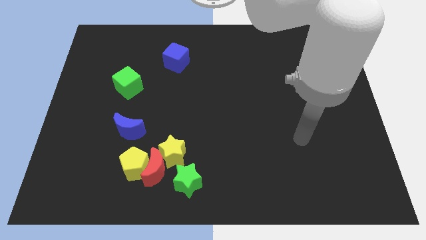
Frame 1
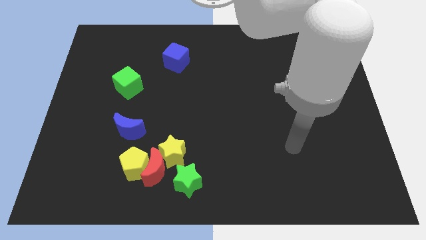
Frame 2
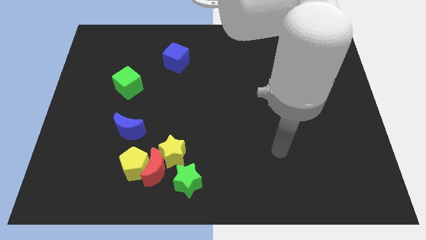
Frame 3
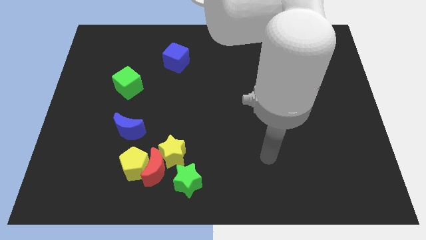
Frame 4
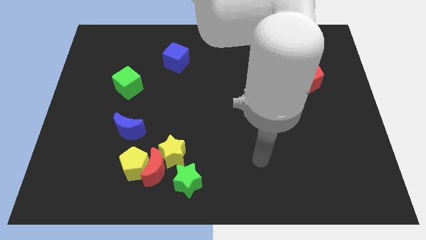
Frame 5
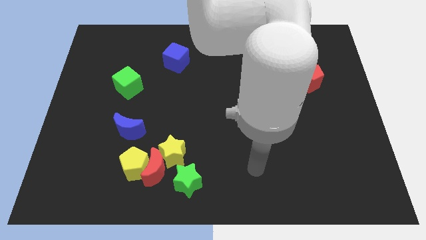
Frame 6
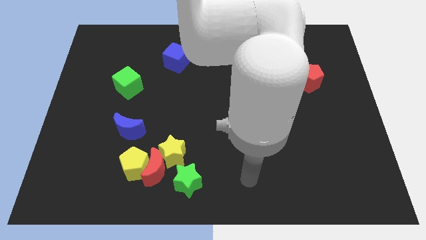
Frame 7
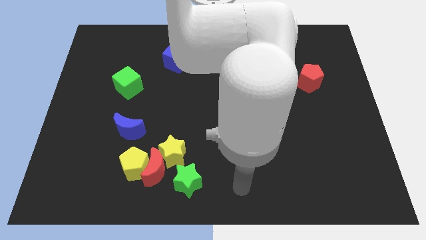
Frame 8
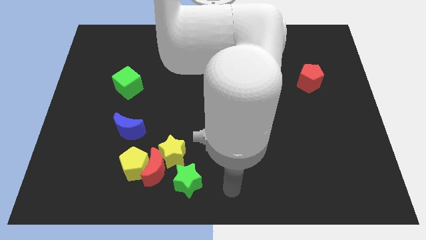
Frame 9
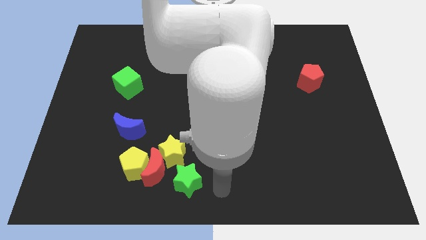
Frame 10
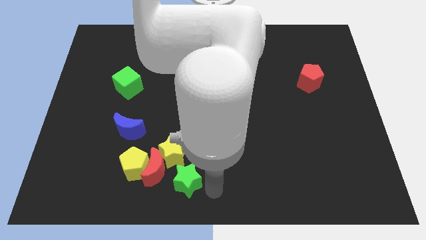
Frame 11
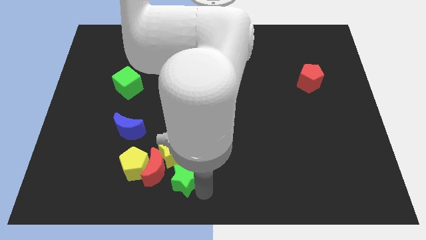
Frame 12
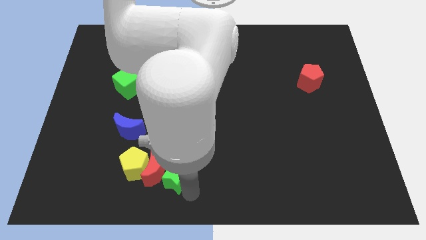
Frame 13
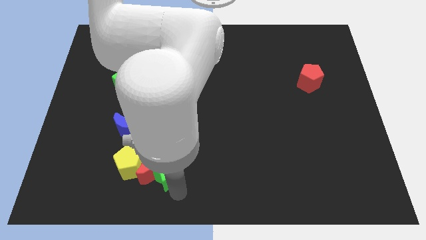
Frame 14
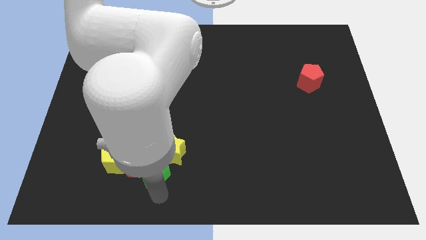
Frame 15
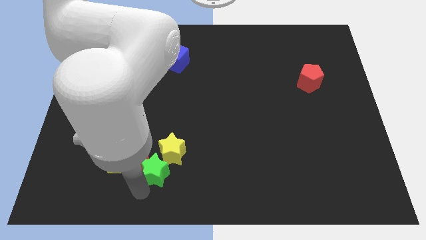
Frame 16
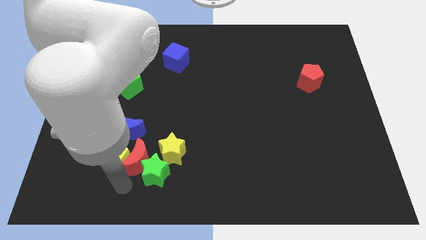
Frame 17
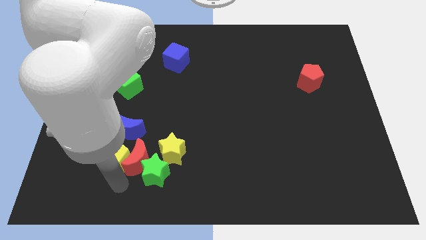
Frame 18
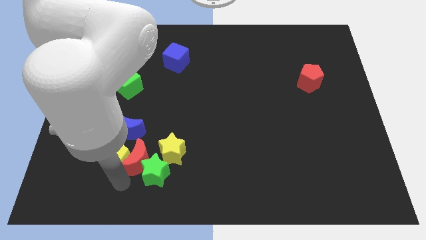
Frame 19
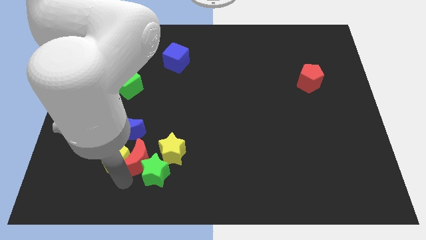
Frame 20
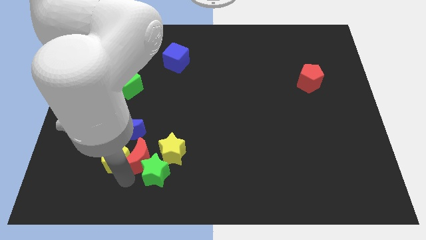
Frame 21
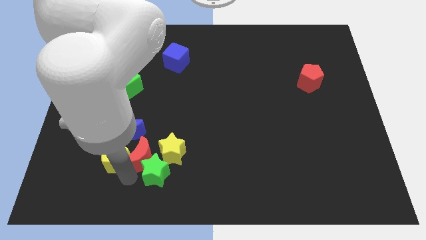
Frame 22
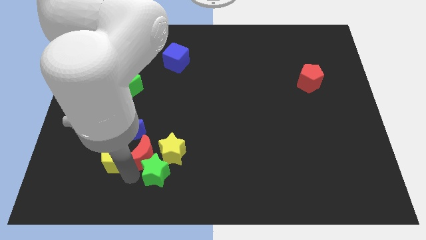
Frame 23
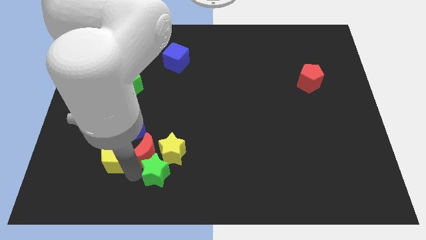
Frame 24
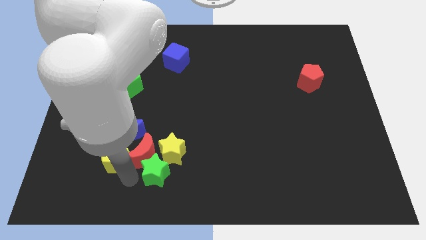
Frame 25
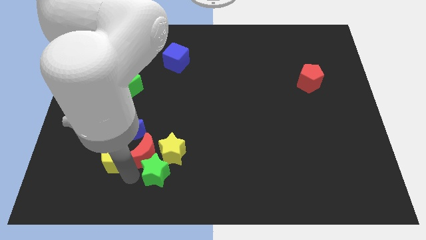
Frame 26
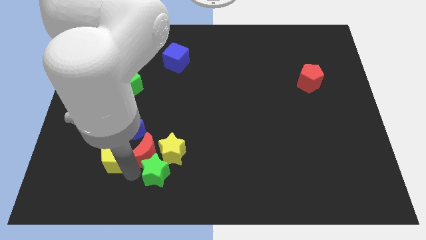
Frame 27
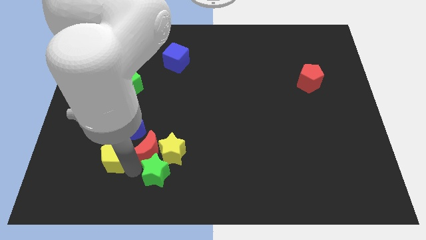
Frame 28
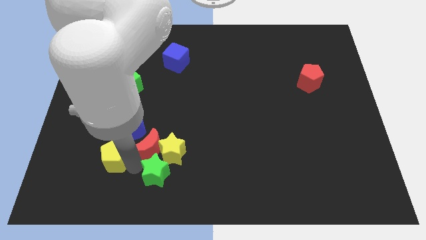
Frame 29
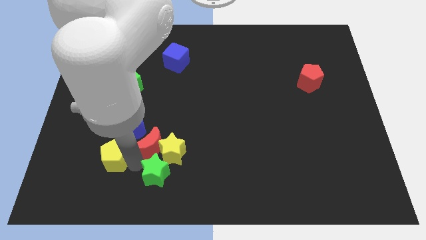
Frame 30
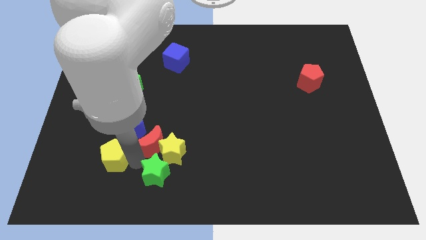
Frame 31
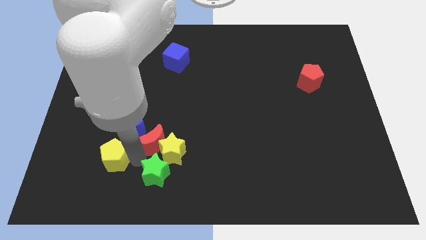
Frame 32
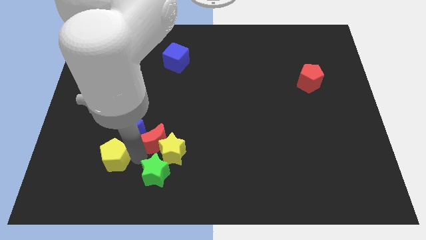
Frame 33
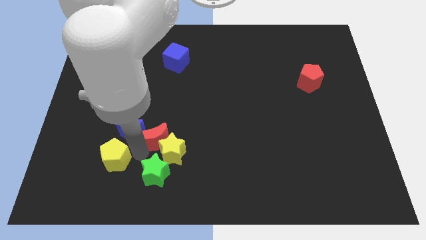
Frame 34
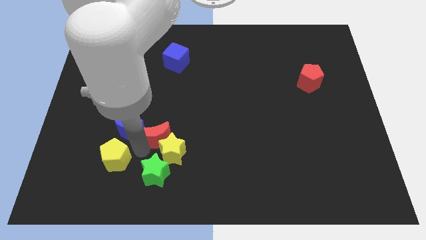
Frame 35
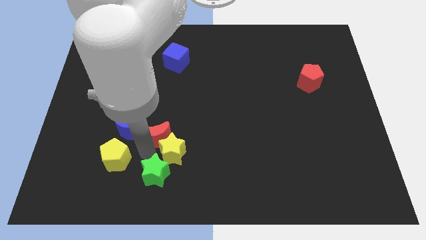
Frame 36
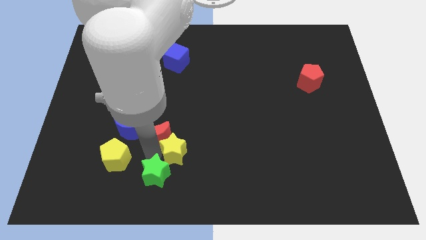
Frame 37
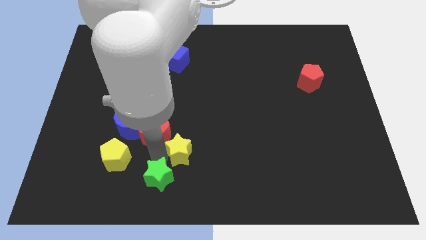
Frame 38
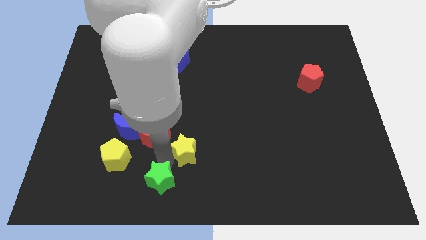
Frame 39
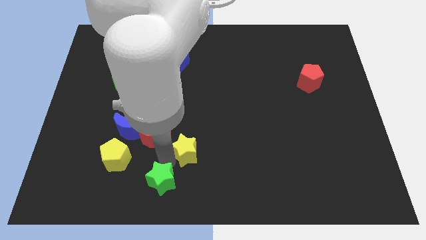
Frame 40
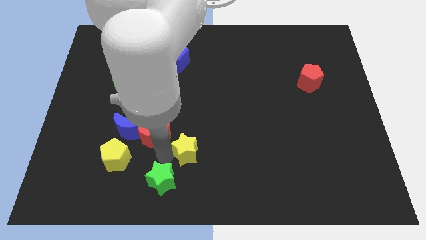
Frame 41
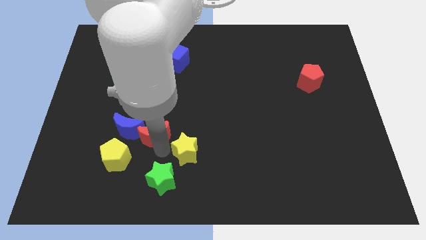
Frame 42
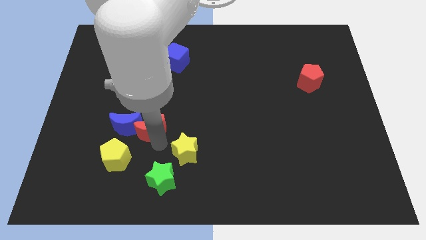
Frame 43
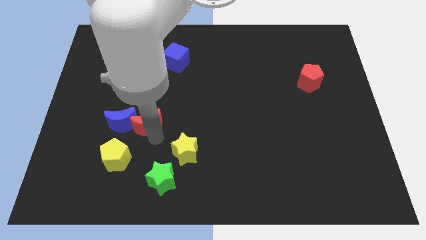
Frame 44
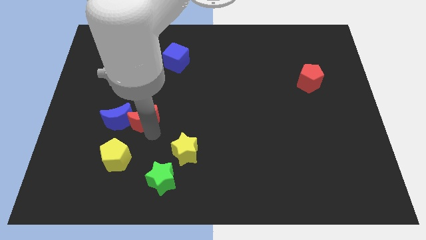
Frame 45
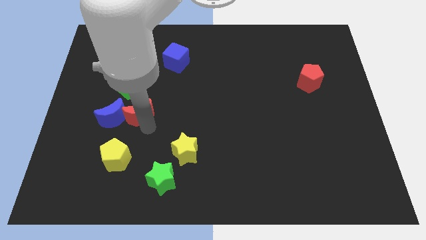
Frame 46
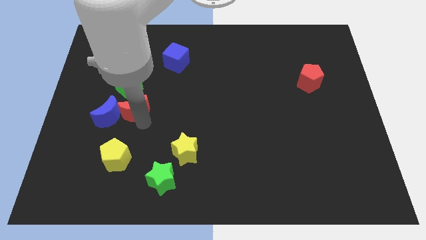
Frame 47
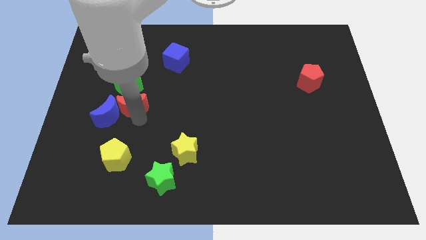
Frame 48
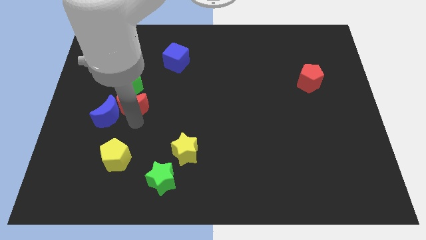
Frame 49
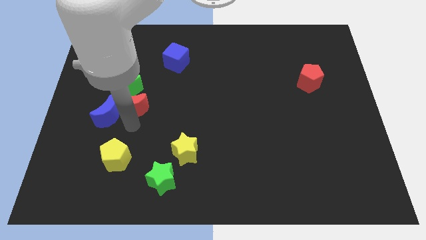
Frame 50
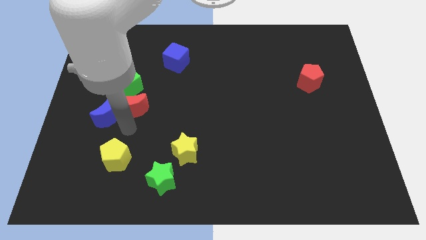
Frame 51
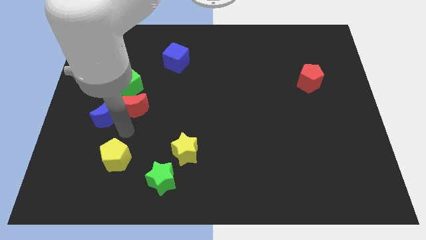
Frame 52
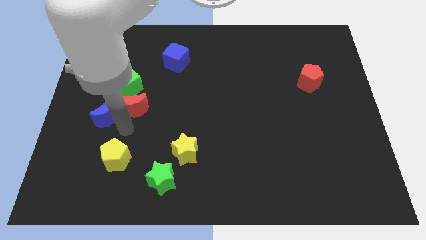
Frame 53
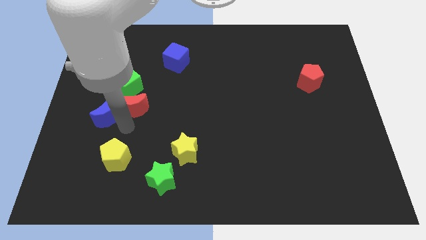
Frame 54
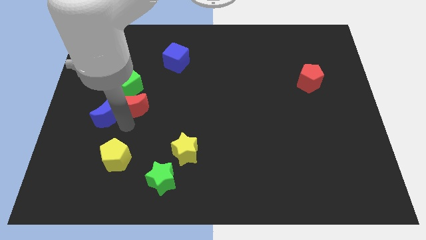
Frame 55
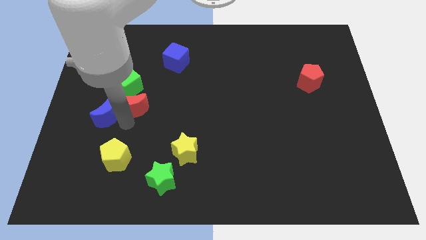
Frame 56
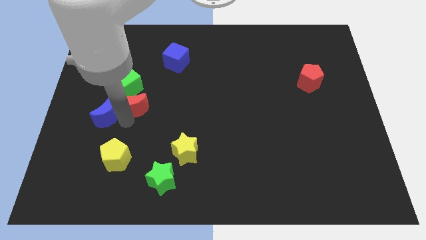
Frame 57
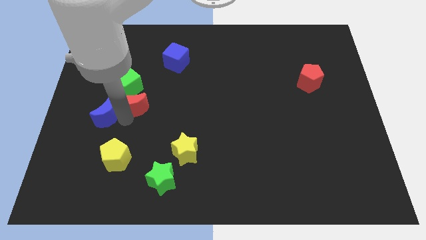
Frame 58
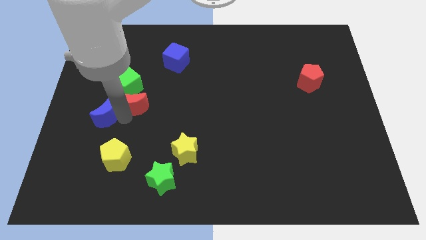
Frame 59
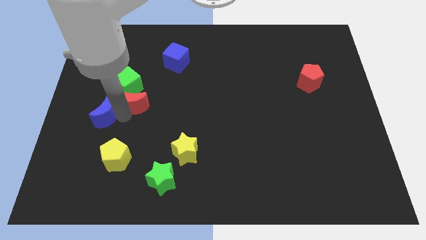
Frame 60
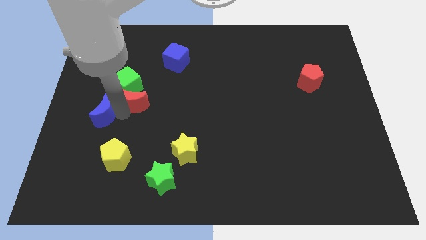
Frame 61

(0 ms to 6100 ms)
move the red moon towards the green cube

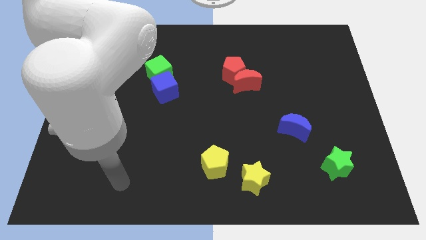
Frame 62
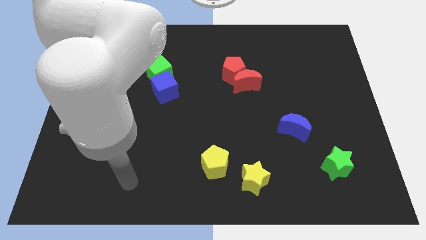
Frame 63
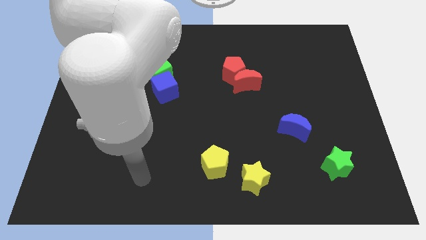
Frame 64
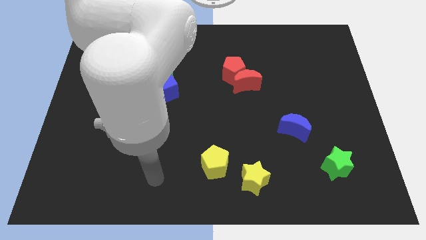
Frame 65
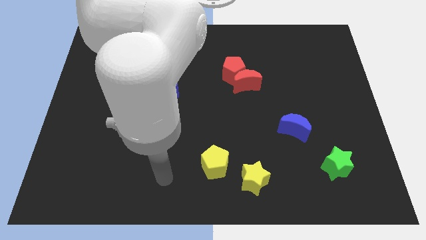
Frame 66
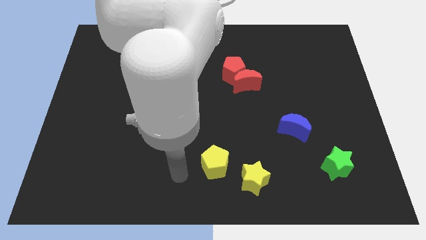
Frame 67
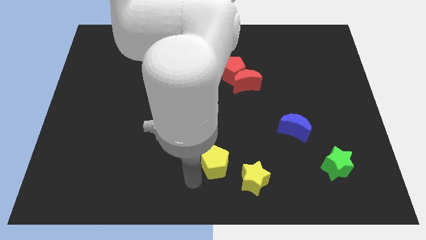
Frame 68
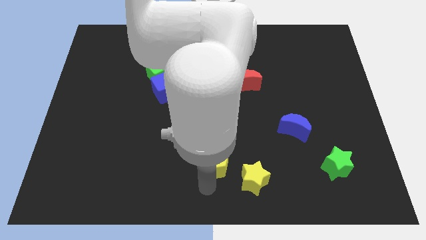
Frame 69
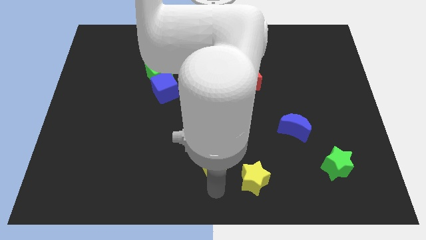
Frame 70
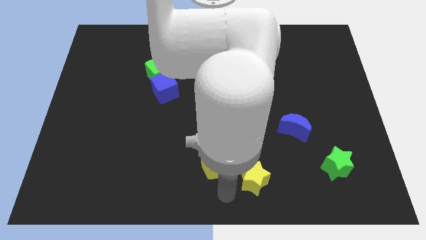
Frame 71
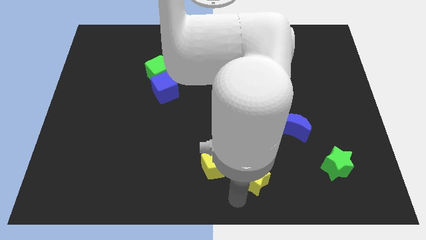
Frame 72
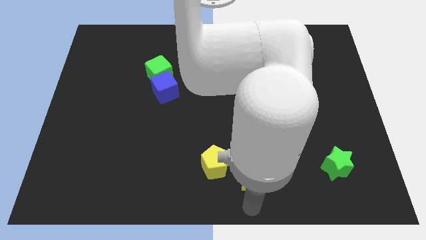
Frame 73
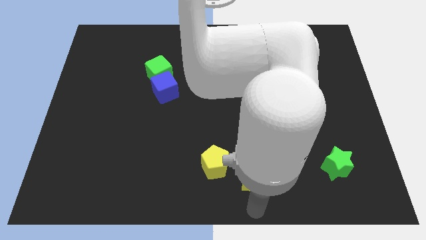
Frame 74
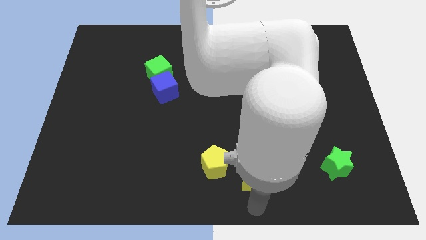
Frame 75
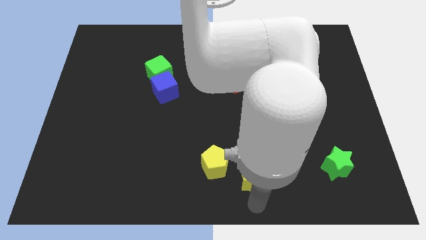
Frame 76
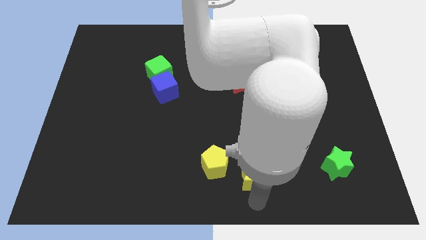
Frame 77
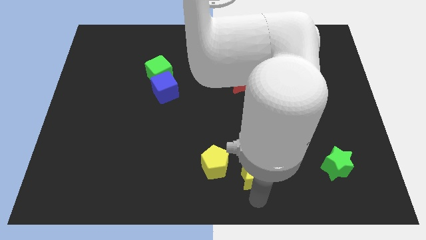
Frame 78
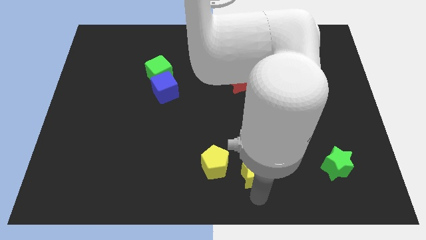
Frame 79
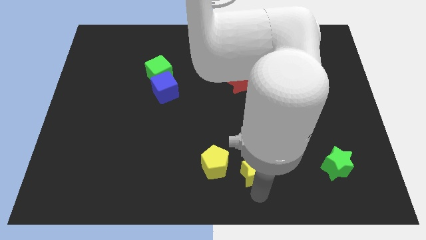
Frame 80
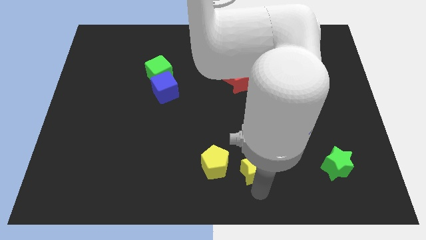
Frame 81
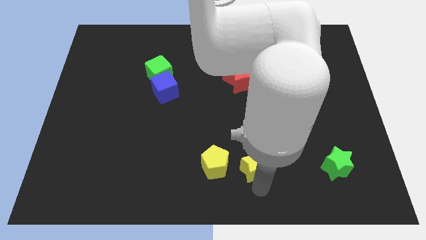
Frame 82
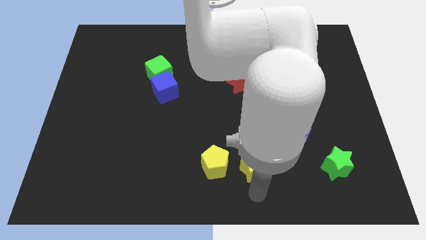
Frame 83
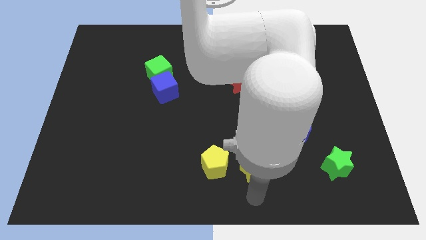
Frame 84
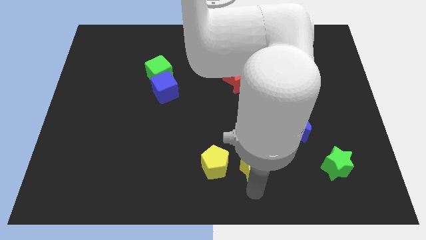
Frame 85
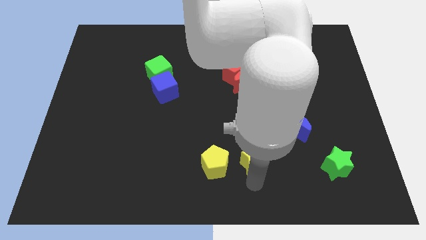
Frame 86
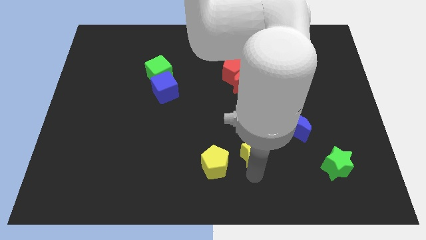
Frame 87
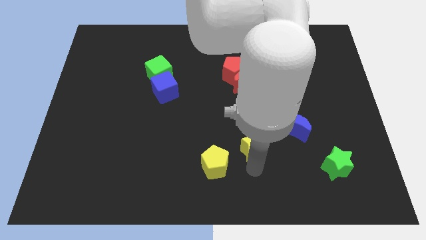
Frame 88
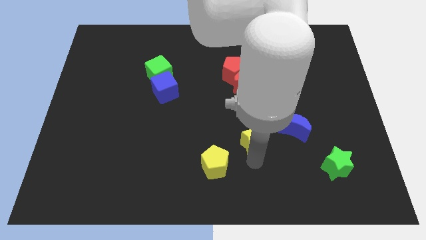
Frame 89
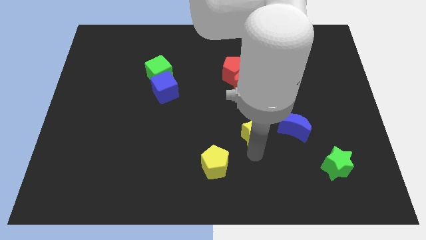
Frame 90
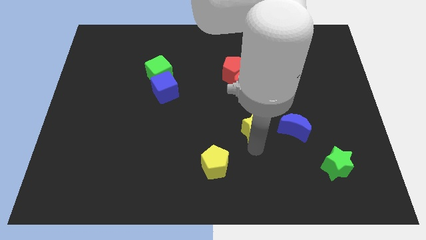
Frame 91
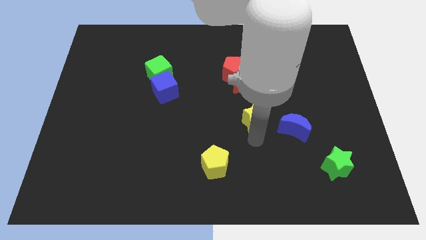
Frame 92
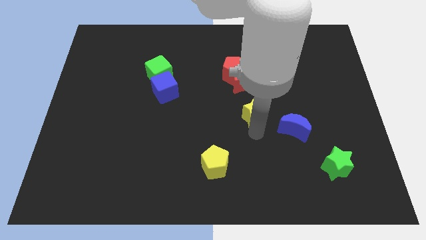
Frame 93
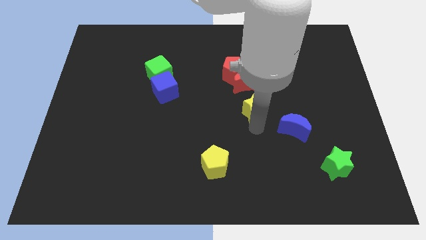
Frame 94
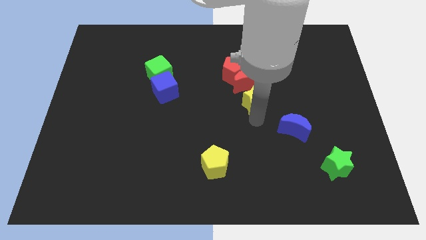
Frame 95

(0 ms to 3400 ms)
slide the yellow star next to the red moon
